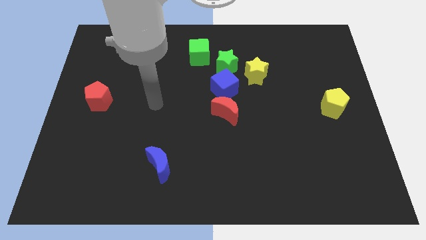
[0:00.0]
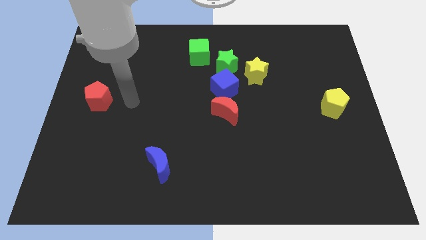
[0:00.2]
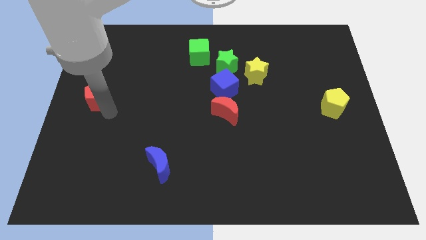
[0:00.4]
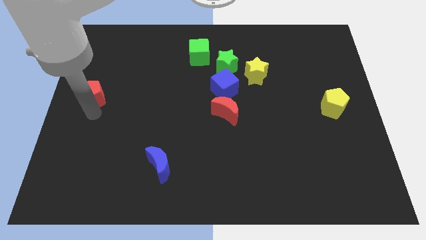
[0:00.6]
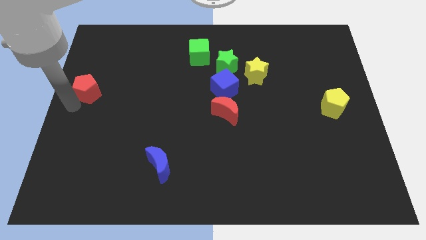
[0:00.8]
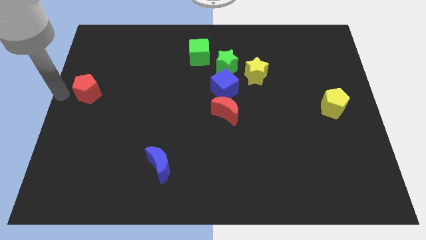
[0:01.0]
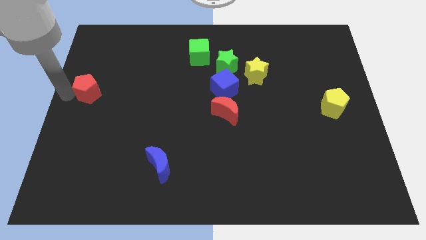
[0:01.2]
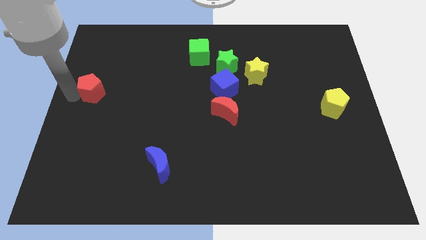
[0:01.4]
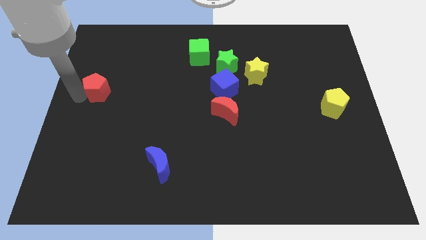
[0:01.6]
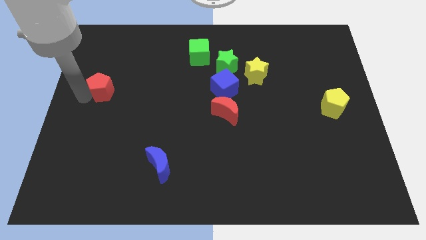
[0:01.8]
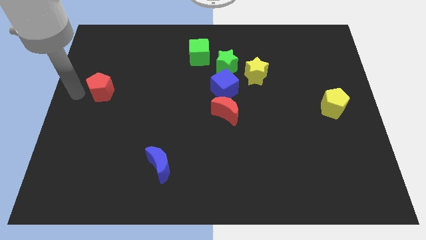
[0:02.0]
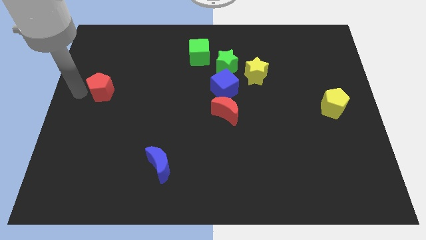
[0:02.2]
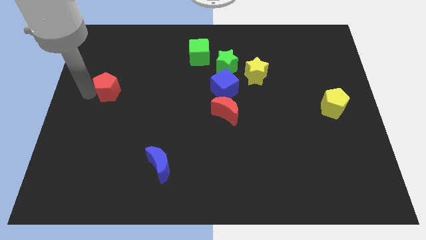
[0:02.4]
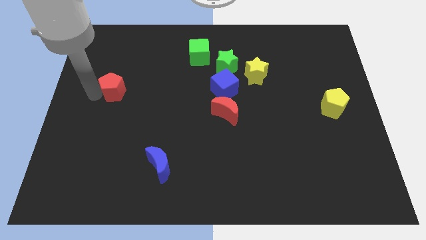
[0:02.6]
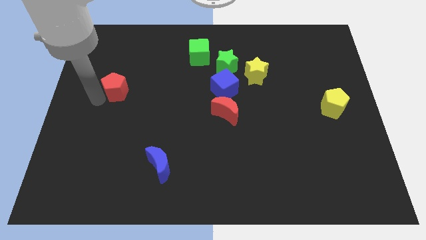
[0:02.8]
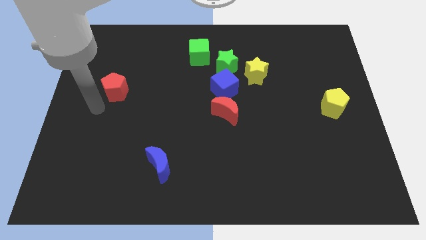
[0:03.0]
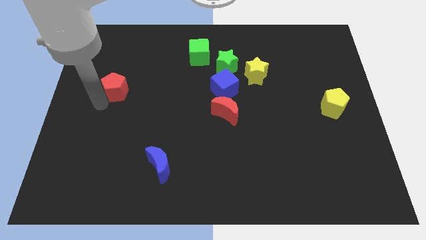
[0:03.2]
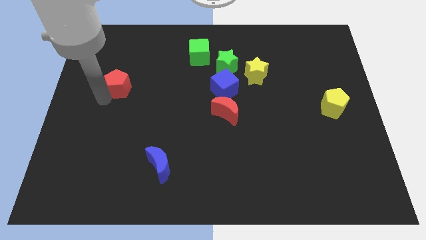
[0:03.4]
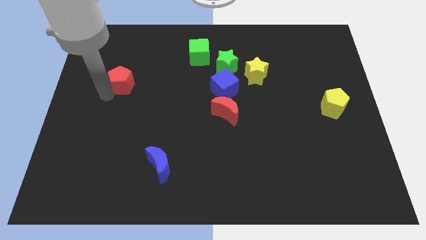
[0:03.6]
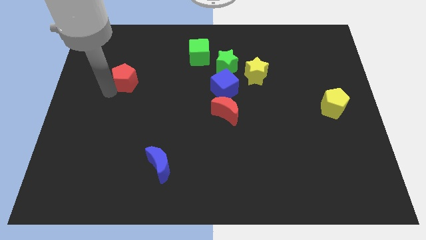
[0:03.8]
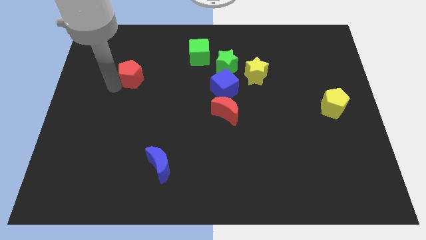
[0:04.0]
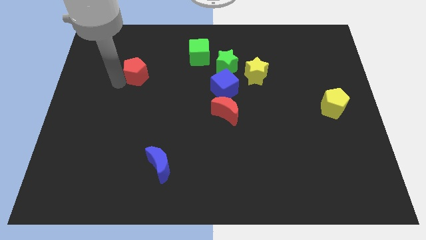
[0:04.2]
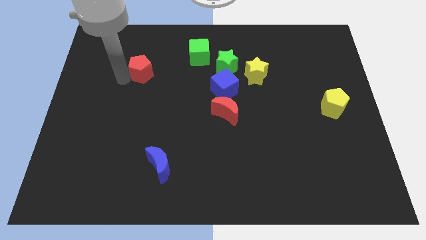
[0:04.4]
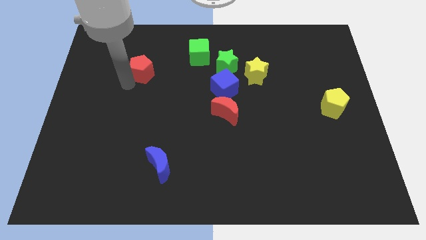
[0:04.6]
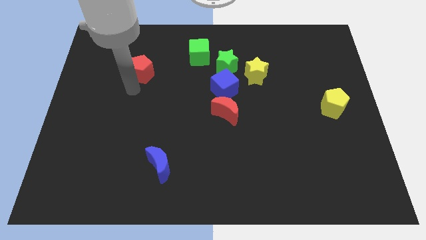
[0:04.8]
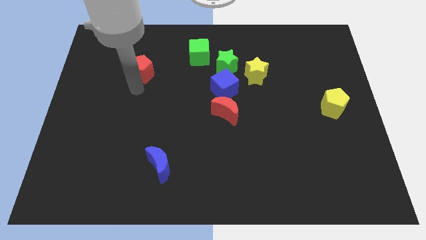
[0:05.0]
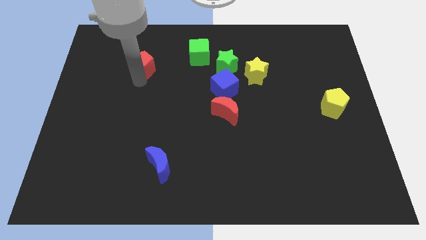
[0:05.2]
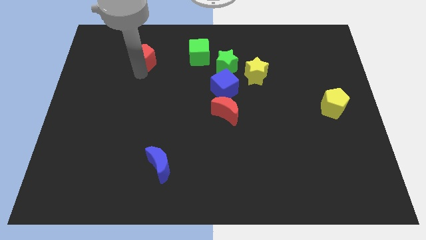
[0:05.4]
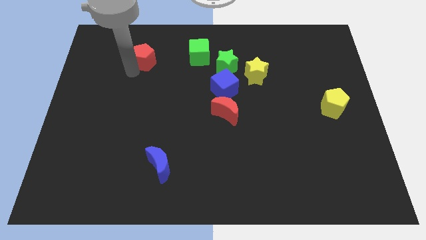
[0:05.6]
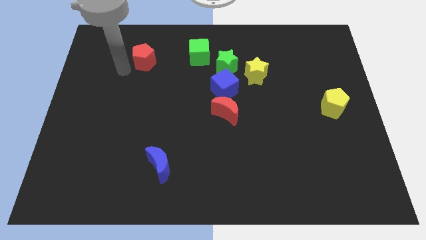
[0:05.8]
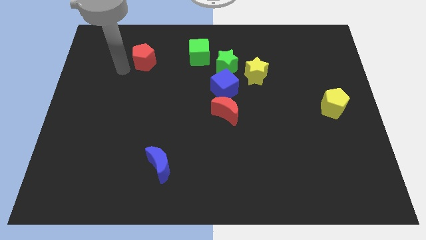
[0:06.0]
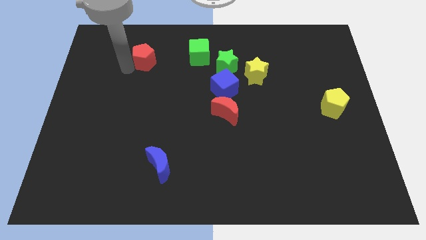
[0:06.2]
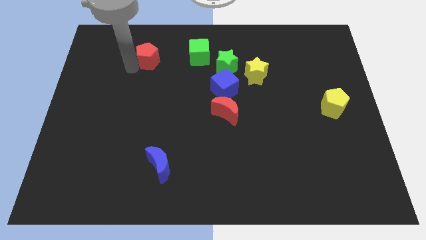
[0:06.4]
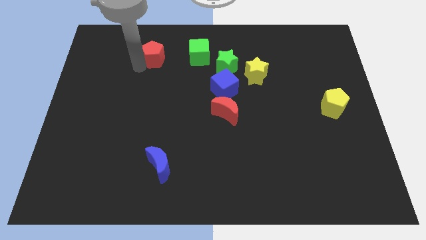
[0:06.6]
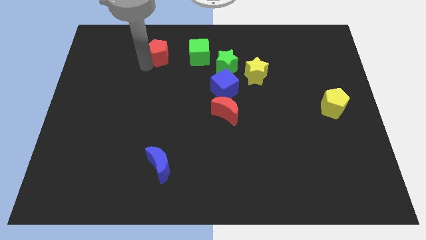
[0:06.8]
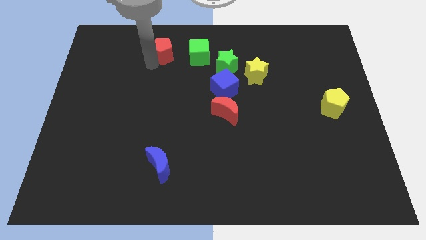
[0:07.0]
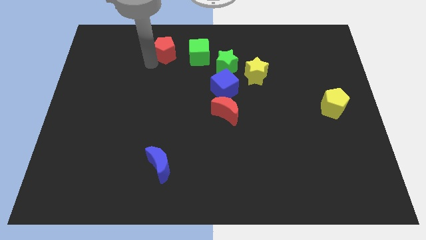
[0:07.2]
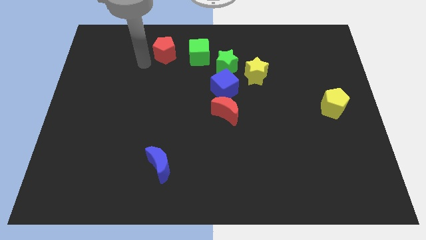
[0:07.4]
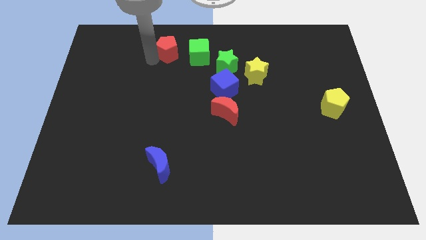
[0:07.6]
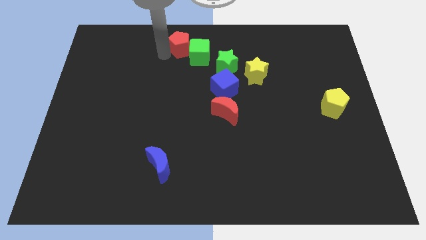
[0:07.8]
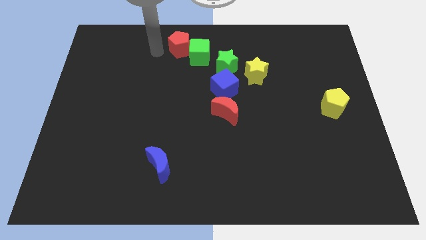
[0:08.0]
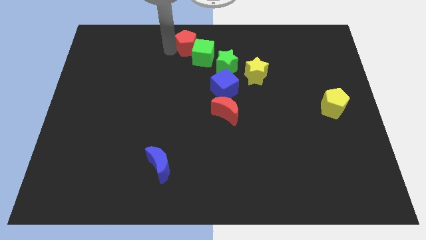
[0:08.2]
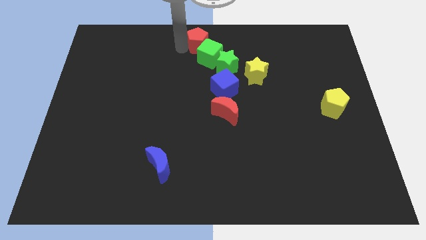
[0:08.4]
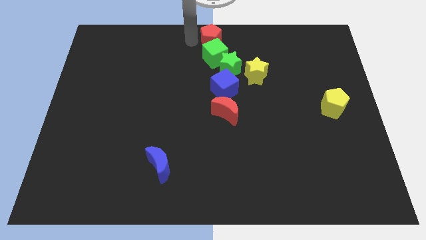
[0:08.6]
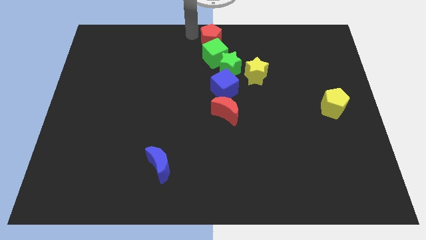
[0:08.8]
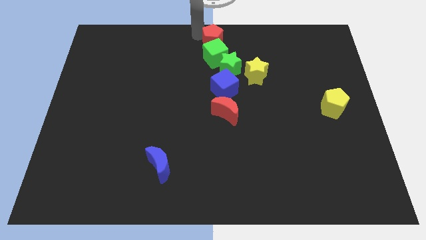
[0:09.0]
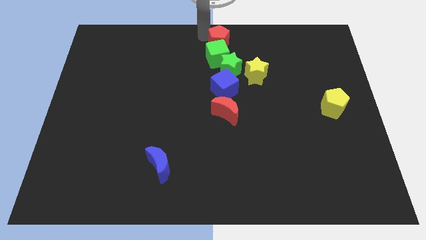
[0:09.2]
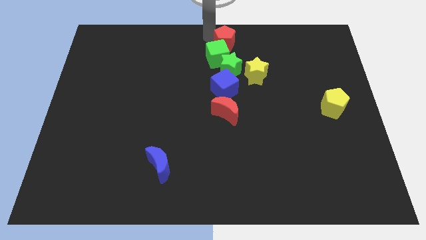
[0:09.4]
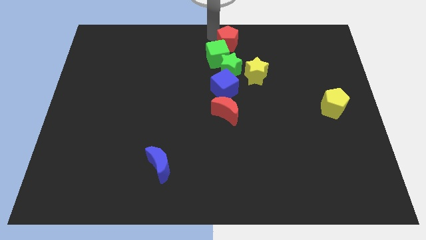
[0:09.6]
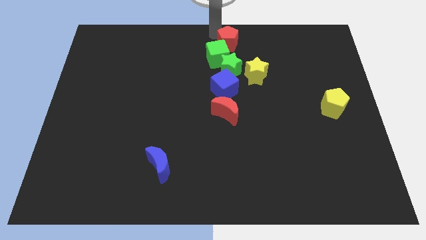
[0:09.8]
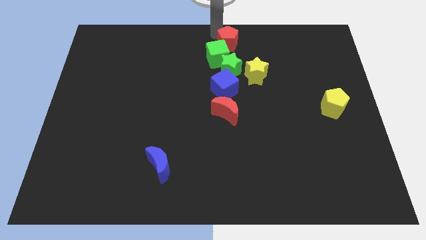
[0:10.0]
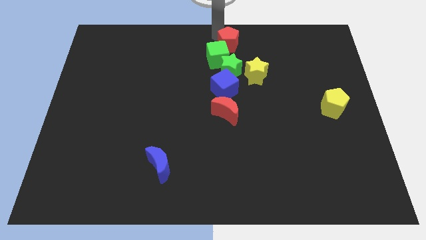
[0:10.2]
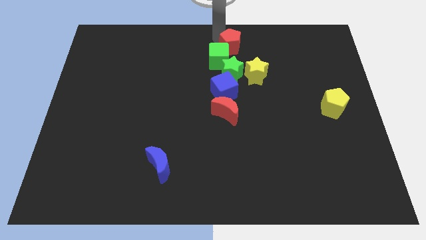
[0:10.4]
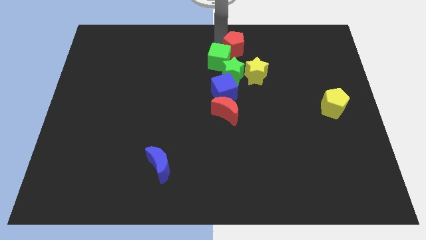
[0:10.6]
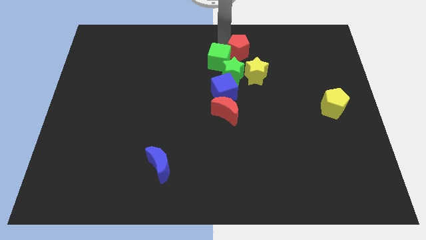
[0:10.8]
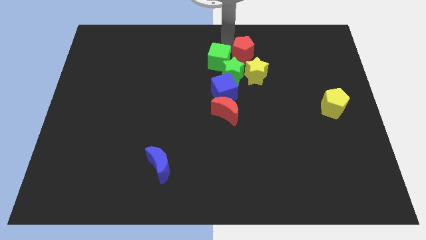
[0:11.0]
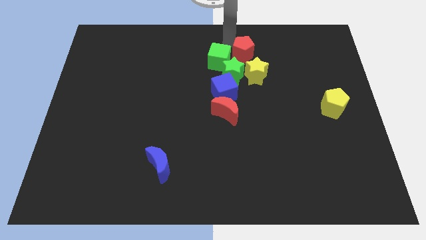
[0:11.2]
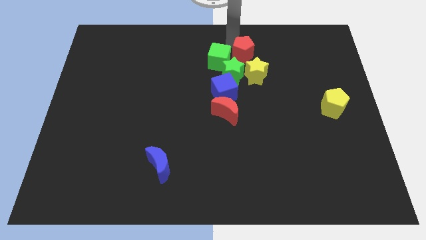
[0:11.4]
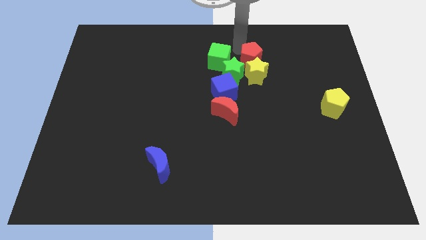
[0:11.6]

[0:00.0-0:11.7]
put the red pentagon next to the yellow star

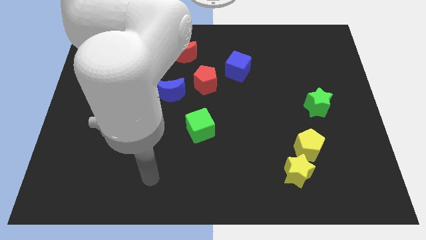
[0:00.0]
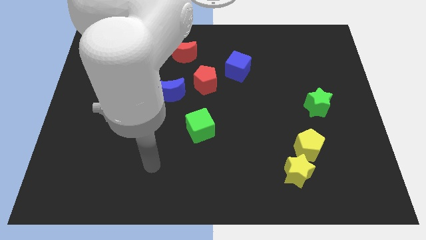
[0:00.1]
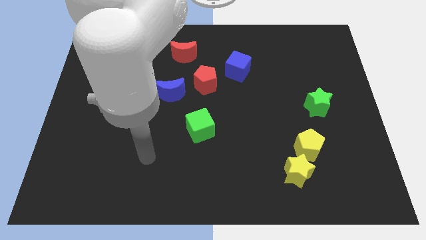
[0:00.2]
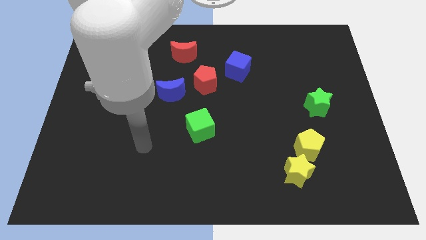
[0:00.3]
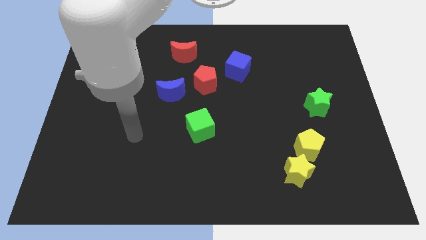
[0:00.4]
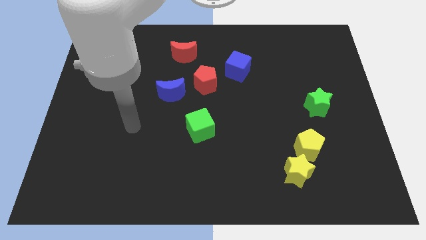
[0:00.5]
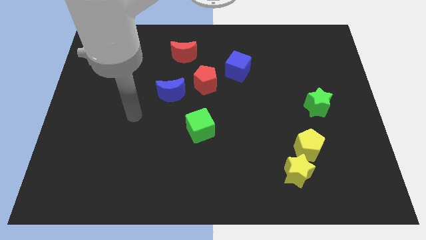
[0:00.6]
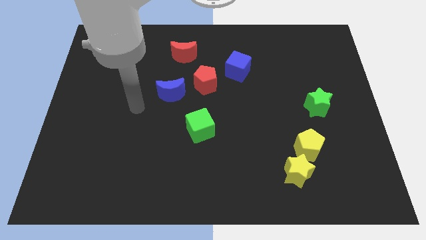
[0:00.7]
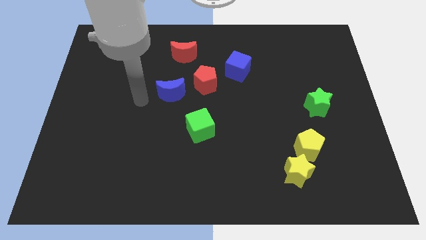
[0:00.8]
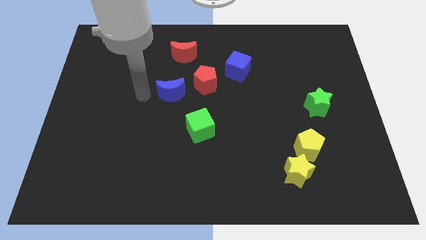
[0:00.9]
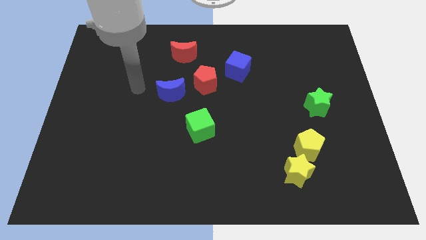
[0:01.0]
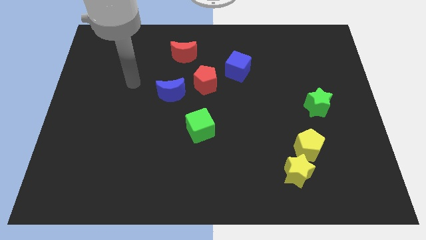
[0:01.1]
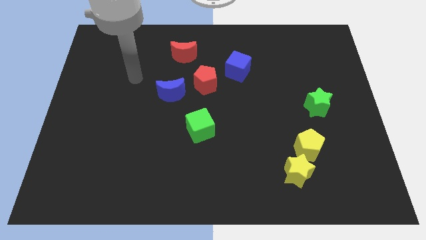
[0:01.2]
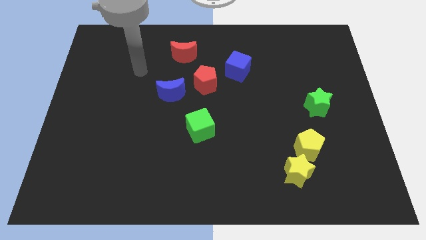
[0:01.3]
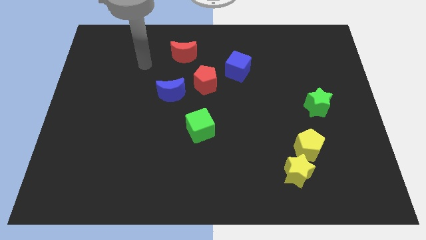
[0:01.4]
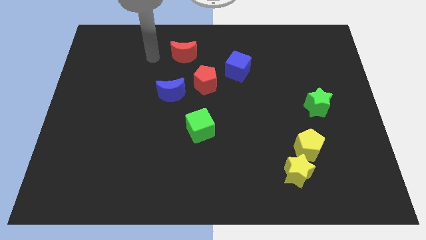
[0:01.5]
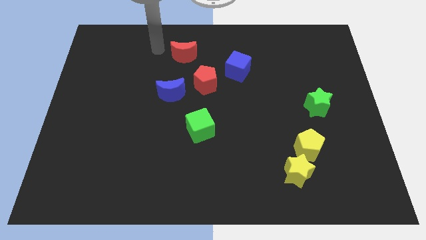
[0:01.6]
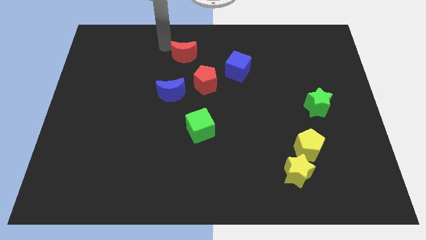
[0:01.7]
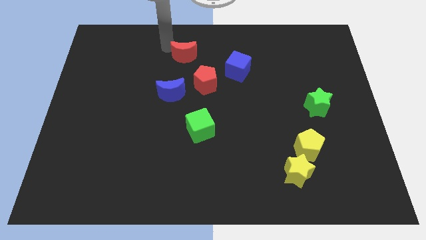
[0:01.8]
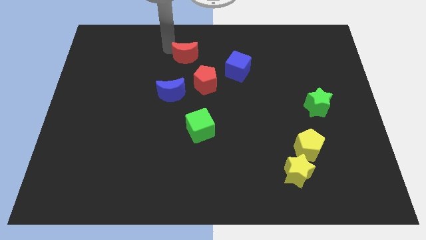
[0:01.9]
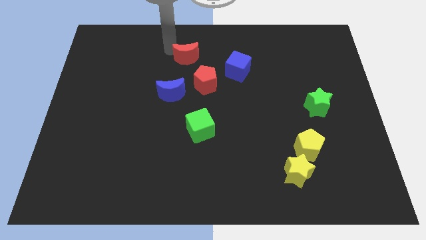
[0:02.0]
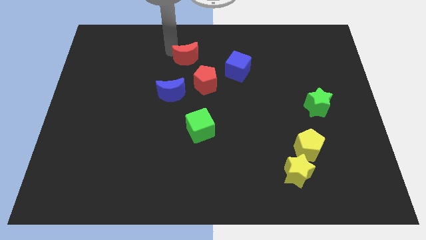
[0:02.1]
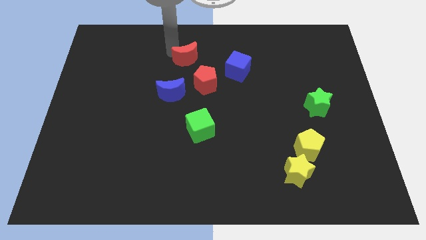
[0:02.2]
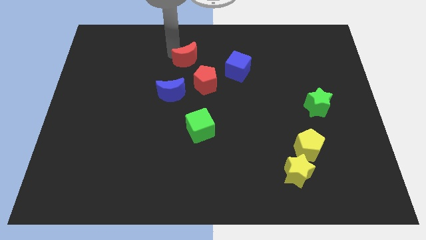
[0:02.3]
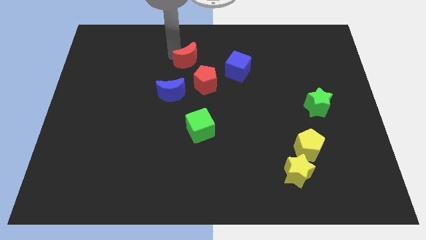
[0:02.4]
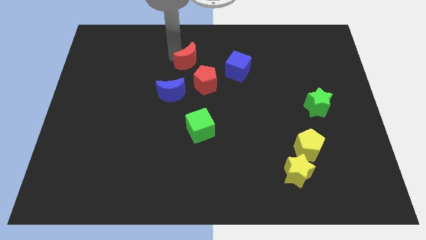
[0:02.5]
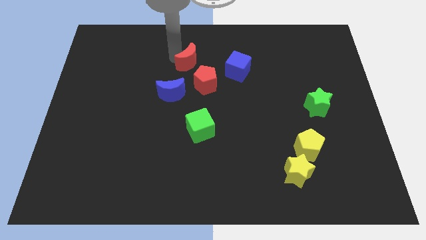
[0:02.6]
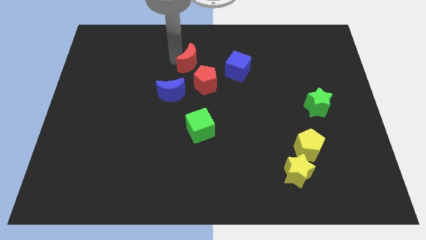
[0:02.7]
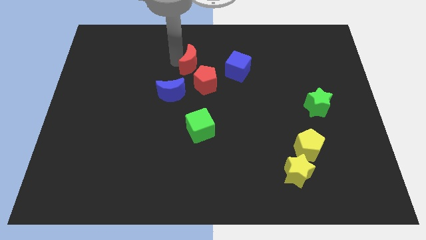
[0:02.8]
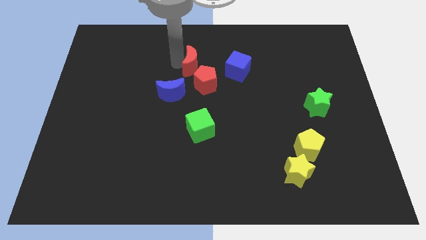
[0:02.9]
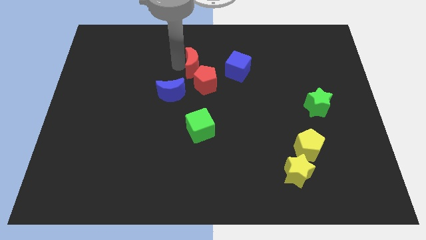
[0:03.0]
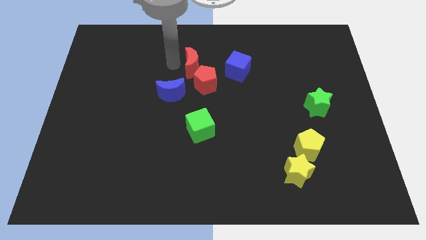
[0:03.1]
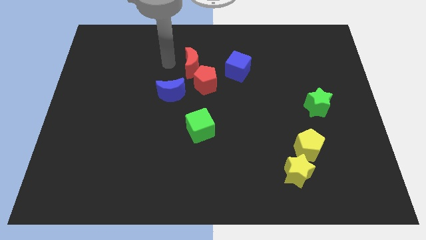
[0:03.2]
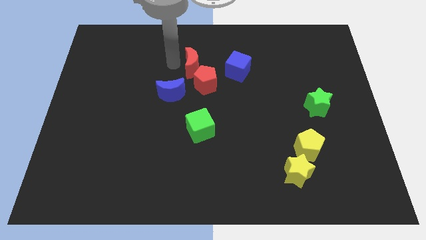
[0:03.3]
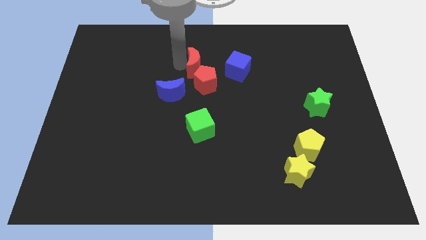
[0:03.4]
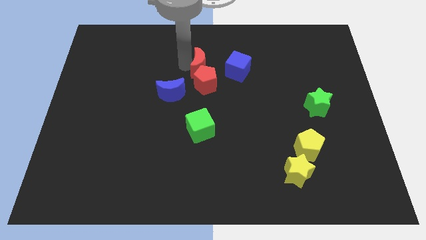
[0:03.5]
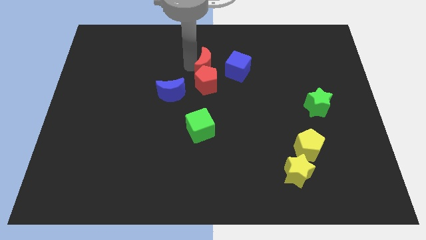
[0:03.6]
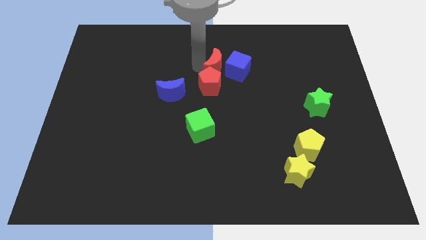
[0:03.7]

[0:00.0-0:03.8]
move the red moon next to the blue cube
